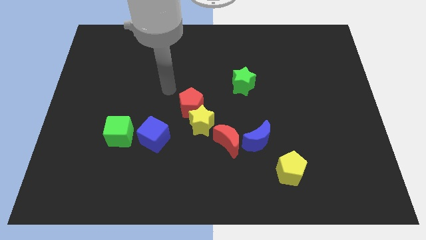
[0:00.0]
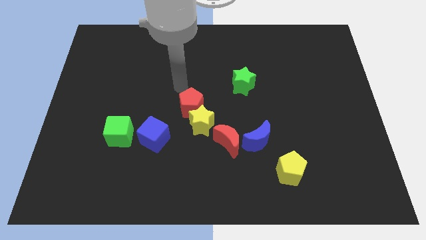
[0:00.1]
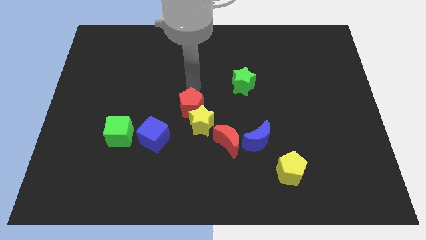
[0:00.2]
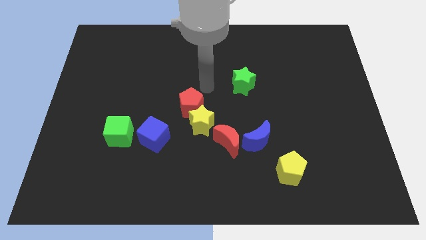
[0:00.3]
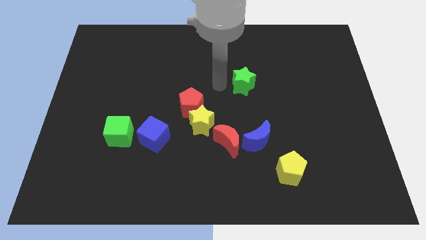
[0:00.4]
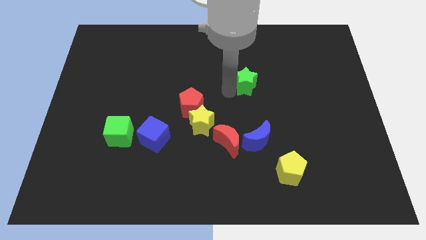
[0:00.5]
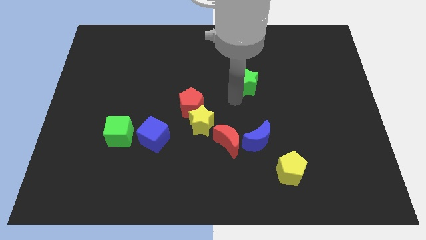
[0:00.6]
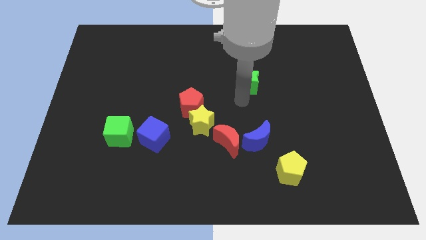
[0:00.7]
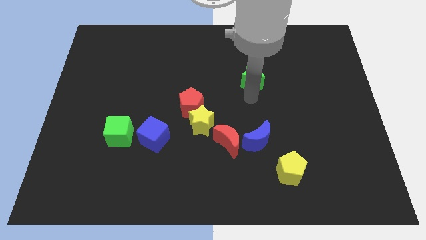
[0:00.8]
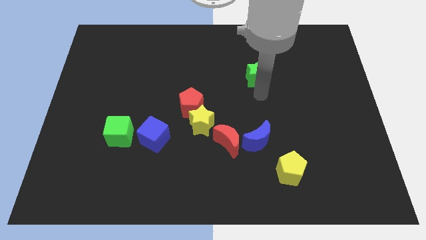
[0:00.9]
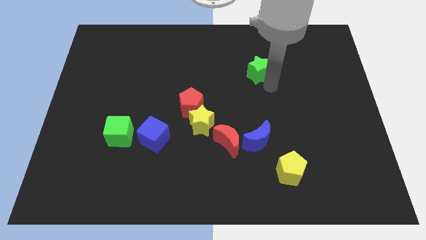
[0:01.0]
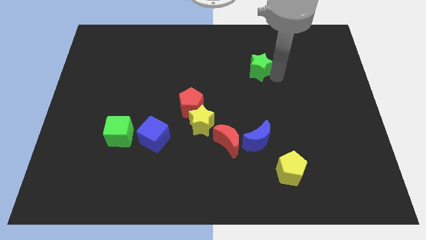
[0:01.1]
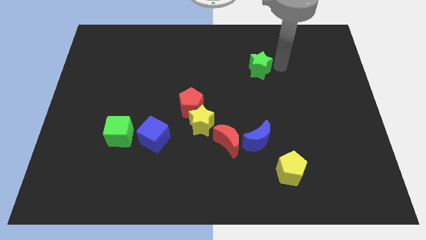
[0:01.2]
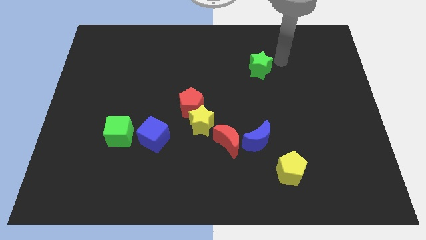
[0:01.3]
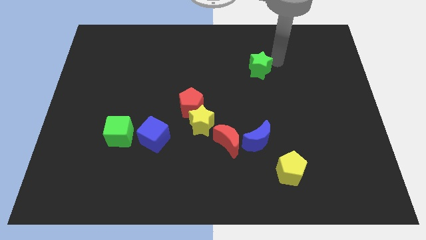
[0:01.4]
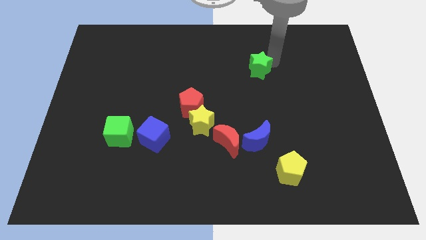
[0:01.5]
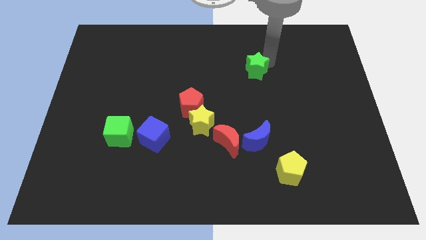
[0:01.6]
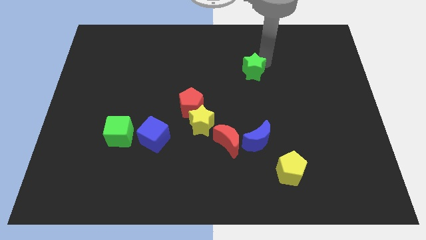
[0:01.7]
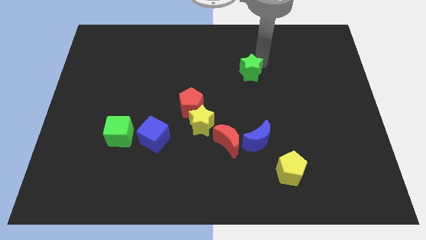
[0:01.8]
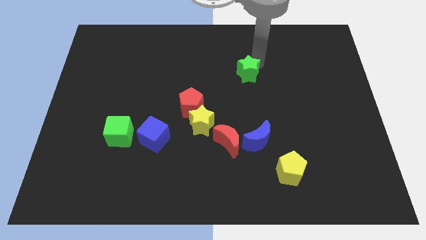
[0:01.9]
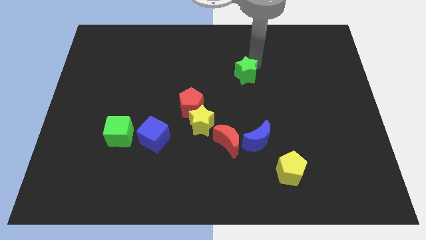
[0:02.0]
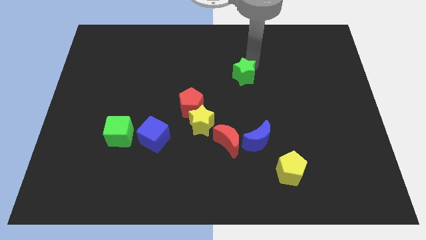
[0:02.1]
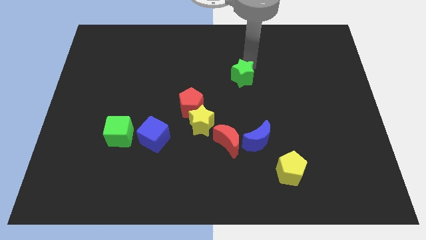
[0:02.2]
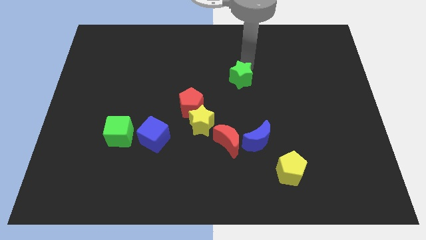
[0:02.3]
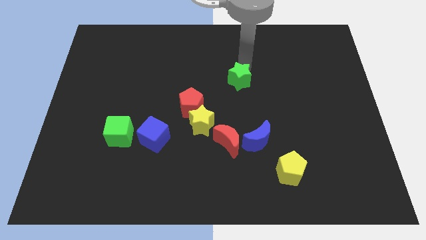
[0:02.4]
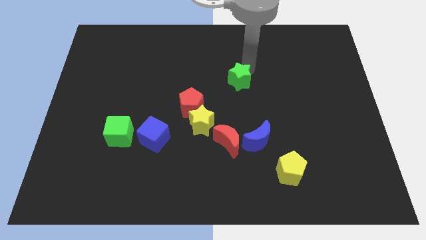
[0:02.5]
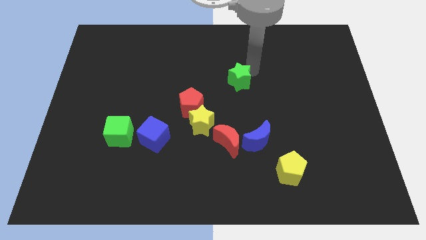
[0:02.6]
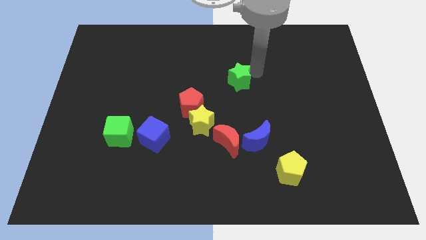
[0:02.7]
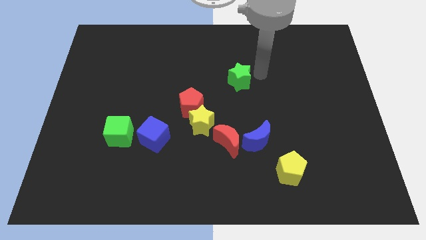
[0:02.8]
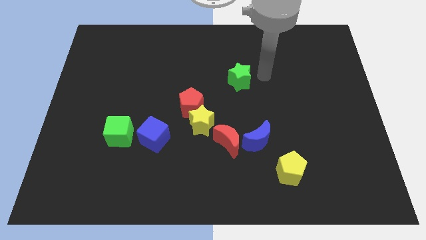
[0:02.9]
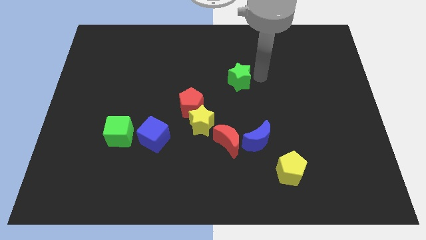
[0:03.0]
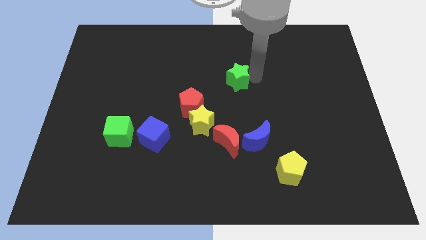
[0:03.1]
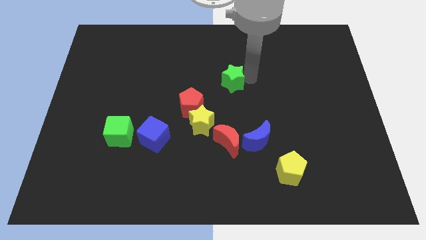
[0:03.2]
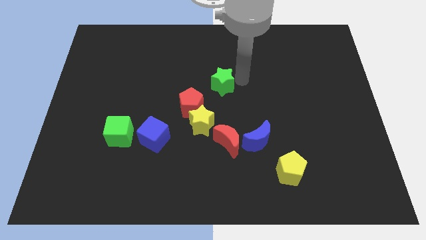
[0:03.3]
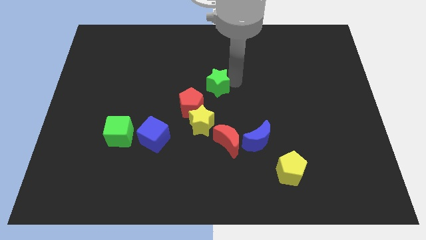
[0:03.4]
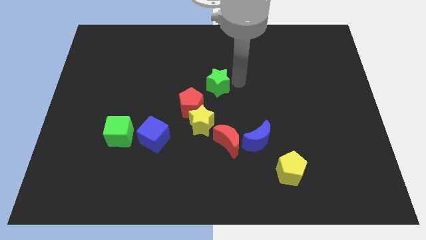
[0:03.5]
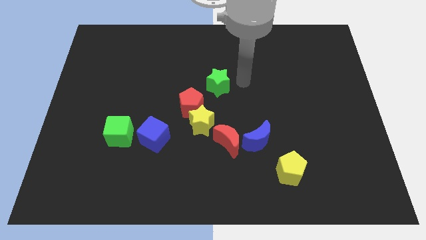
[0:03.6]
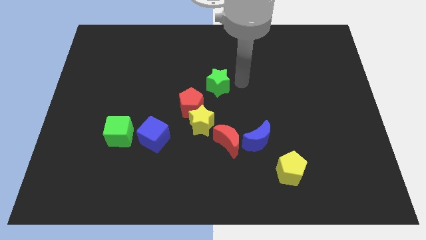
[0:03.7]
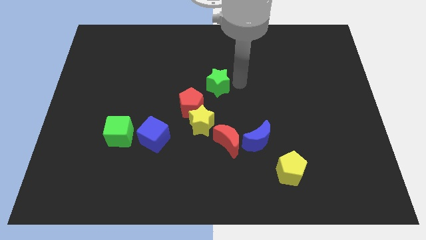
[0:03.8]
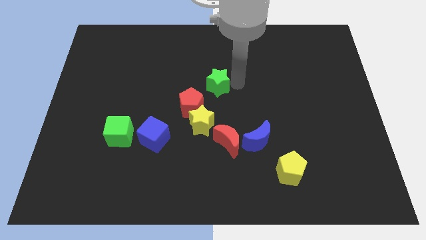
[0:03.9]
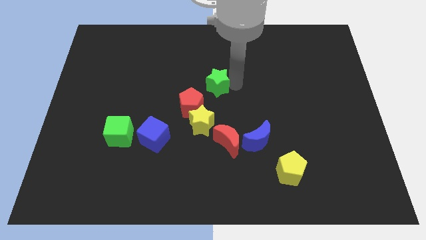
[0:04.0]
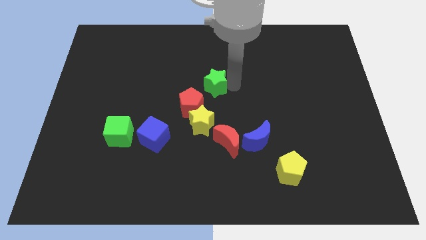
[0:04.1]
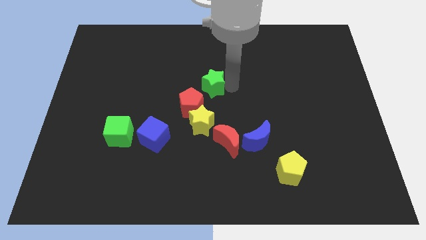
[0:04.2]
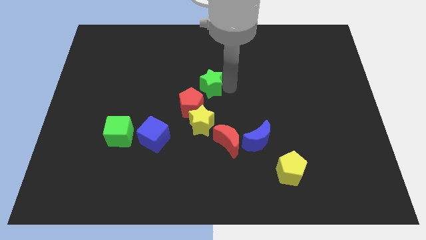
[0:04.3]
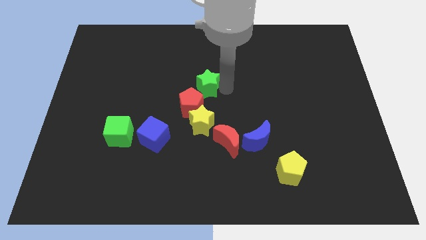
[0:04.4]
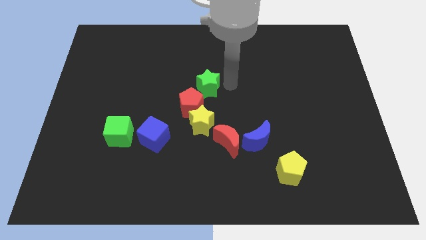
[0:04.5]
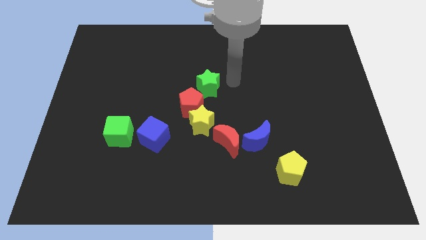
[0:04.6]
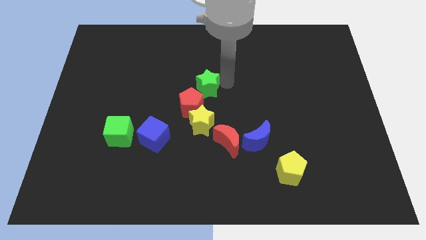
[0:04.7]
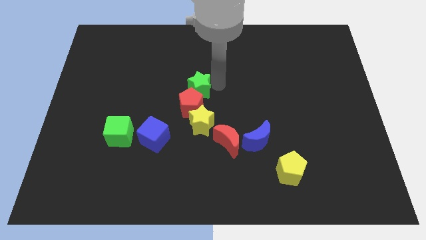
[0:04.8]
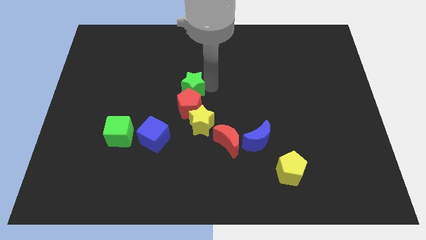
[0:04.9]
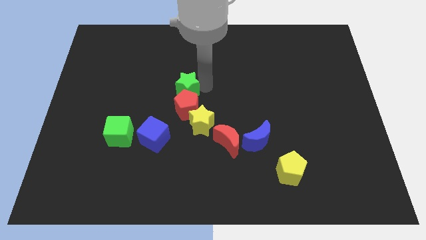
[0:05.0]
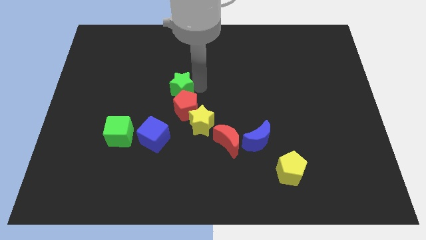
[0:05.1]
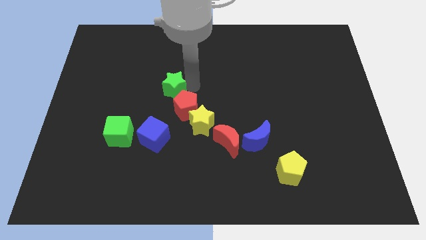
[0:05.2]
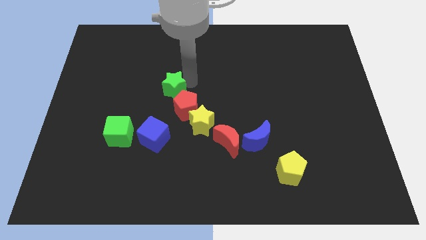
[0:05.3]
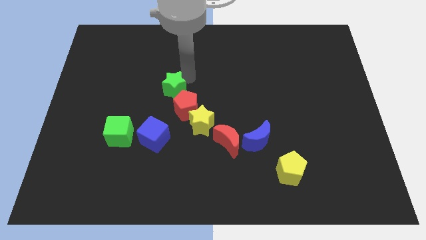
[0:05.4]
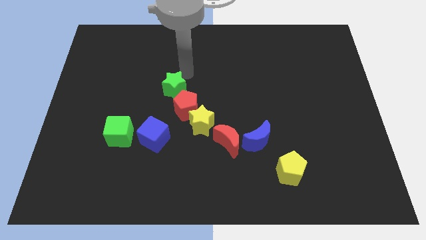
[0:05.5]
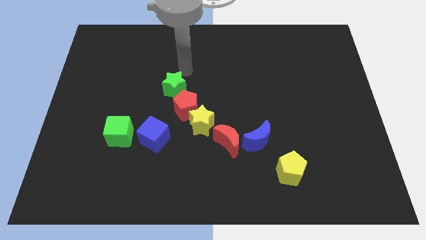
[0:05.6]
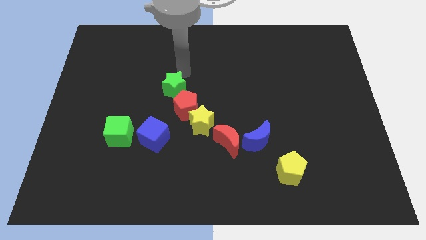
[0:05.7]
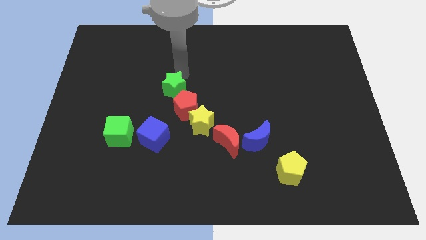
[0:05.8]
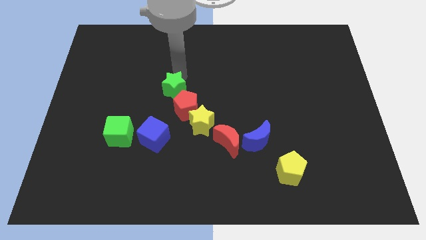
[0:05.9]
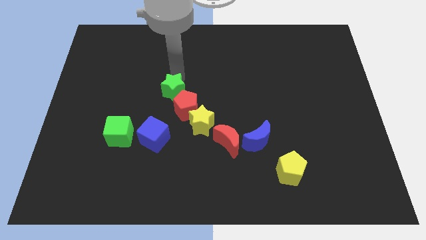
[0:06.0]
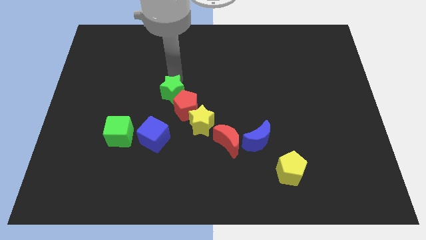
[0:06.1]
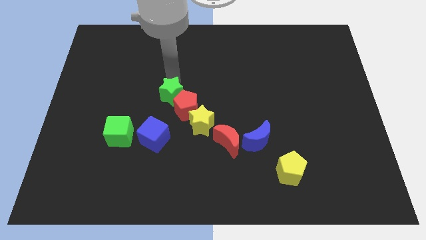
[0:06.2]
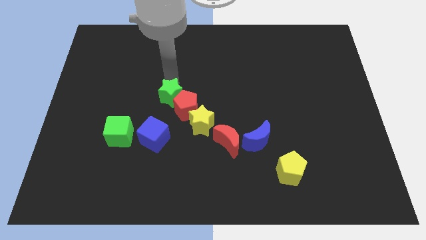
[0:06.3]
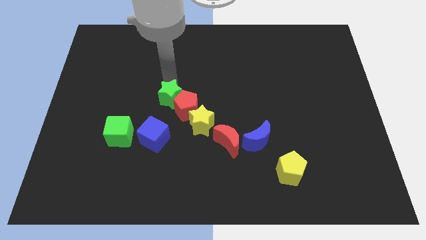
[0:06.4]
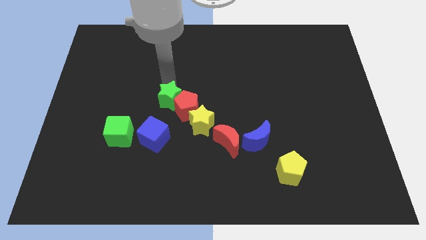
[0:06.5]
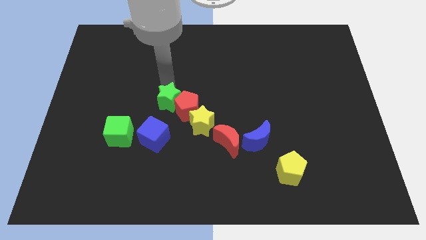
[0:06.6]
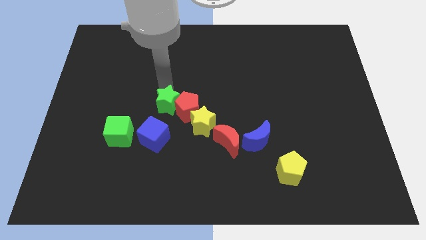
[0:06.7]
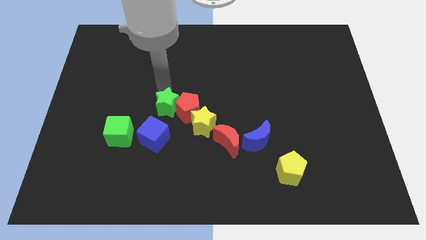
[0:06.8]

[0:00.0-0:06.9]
put the green star to the bottom left of the red pentagon

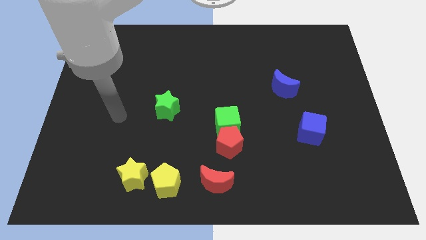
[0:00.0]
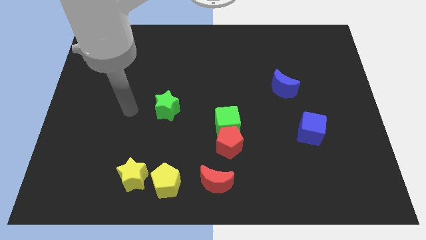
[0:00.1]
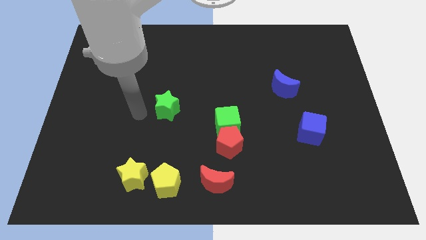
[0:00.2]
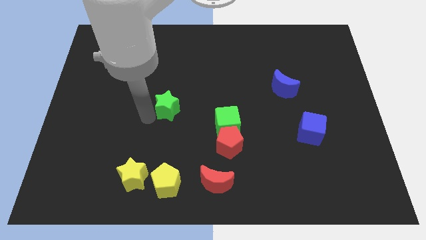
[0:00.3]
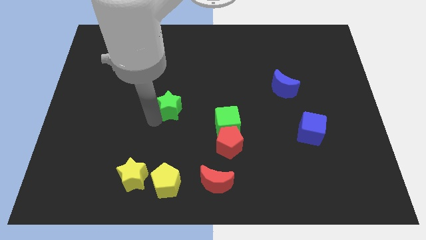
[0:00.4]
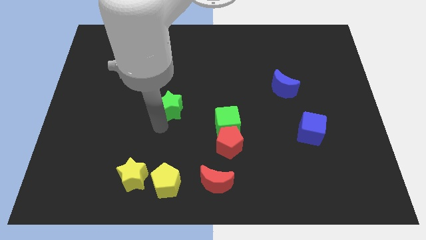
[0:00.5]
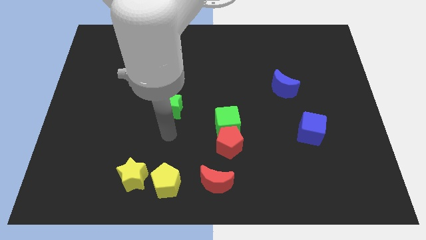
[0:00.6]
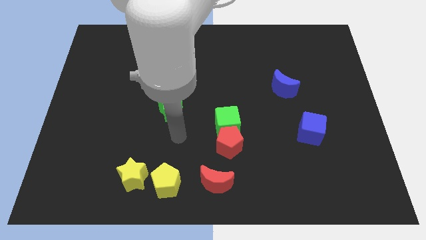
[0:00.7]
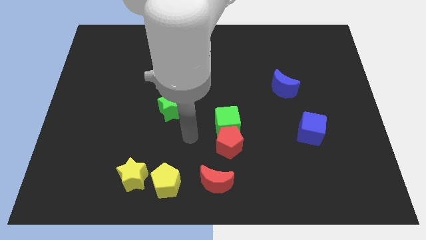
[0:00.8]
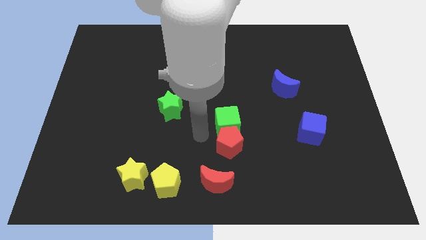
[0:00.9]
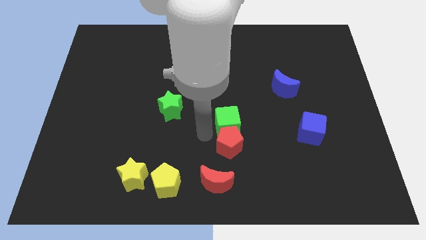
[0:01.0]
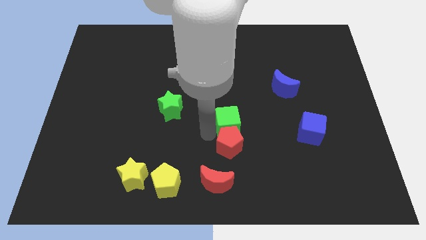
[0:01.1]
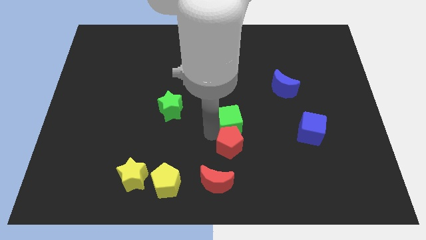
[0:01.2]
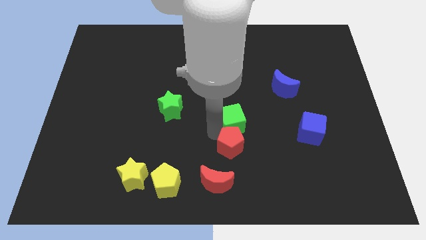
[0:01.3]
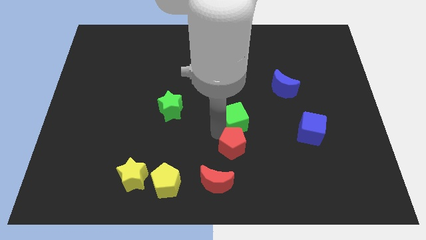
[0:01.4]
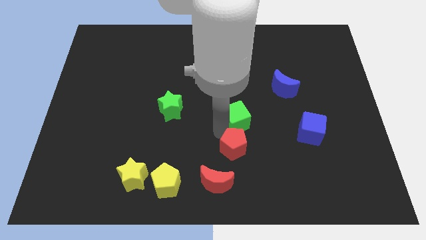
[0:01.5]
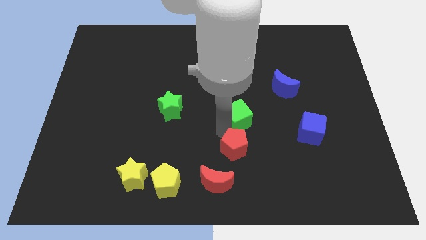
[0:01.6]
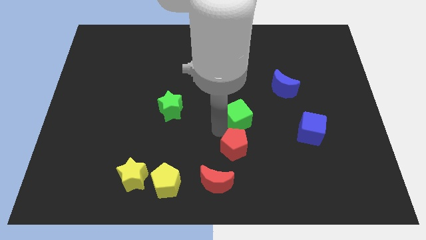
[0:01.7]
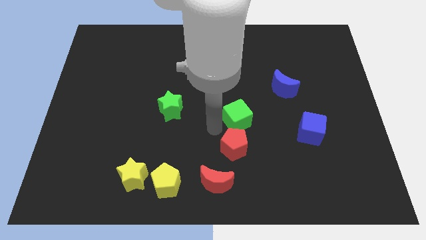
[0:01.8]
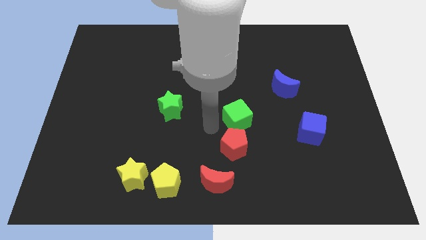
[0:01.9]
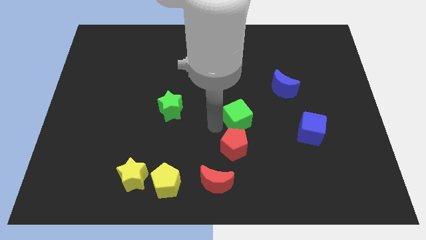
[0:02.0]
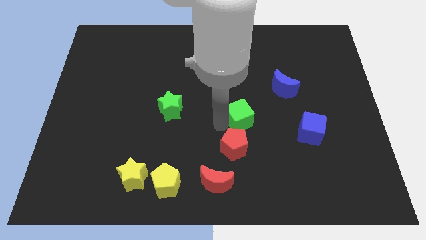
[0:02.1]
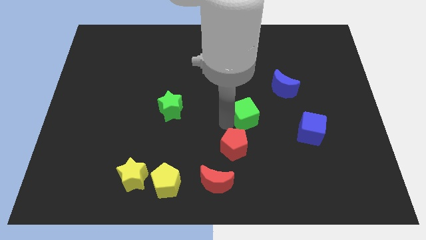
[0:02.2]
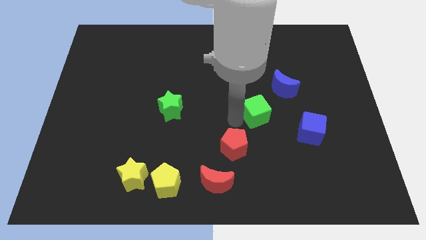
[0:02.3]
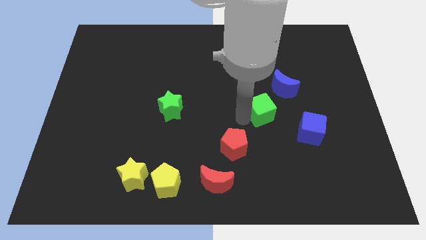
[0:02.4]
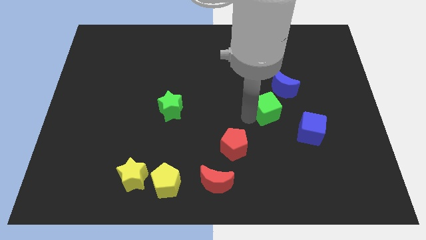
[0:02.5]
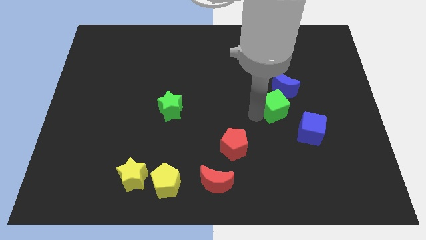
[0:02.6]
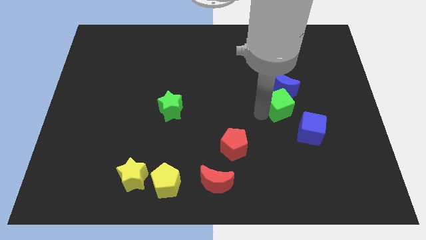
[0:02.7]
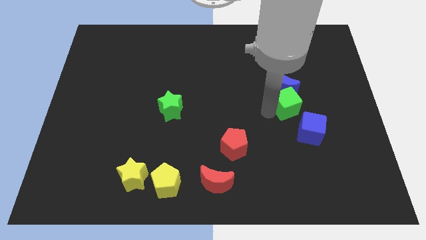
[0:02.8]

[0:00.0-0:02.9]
move the green cube to the top side of the blue cube
